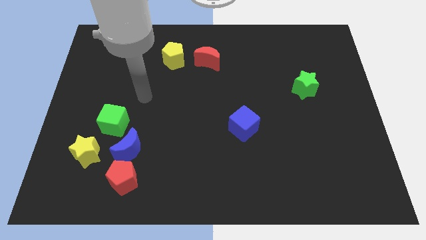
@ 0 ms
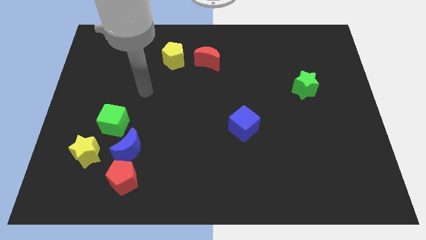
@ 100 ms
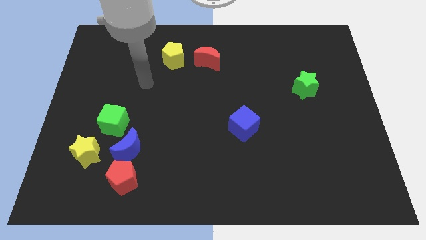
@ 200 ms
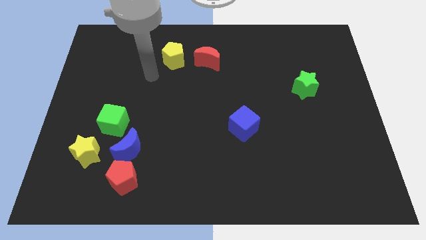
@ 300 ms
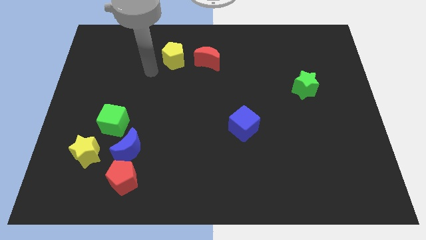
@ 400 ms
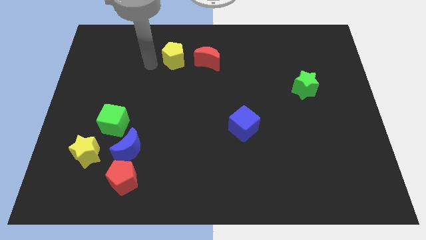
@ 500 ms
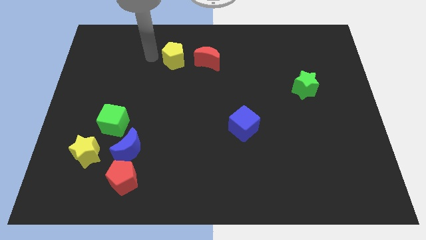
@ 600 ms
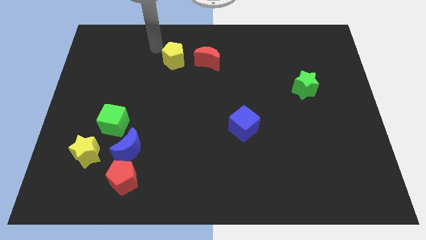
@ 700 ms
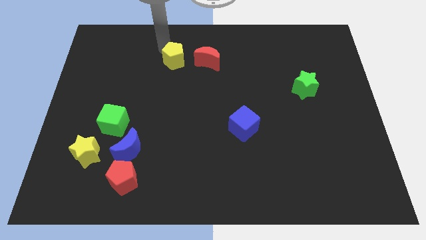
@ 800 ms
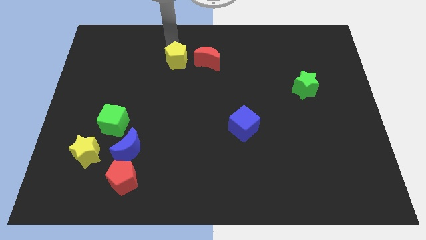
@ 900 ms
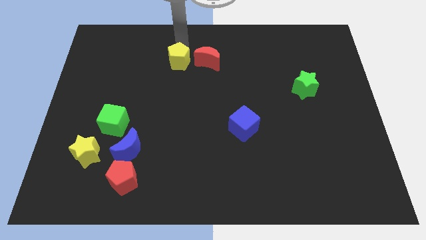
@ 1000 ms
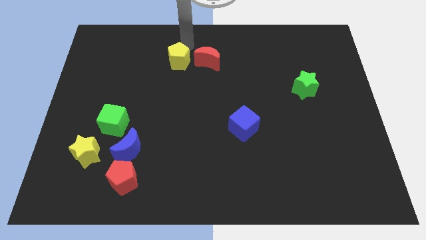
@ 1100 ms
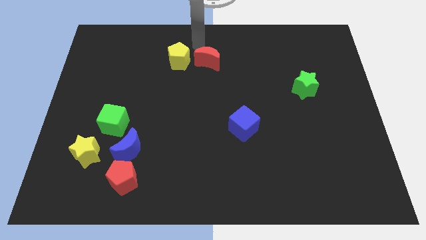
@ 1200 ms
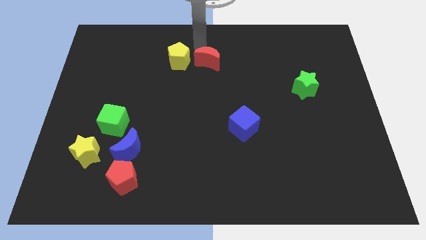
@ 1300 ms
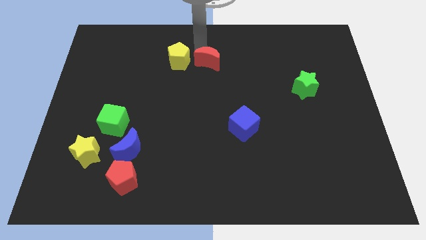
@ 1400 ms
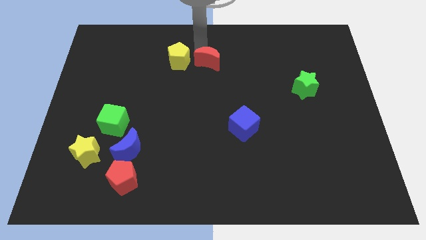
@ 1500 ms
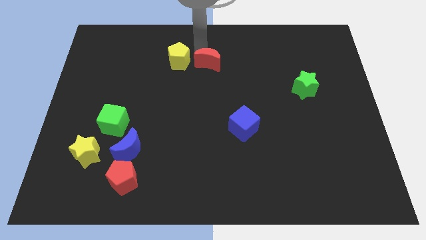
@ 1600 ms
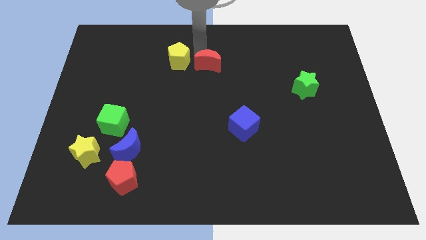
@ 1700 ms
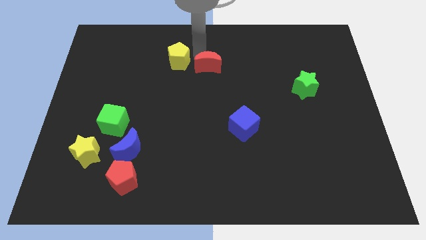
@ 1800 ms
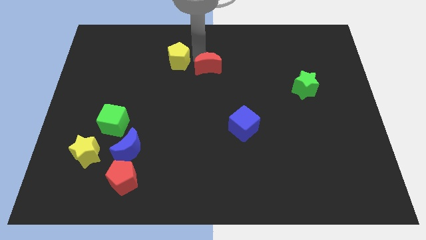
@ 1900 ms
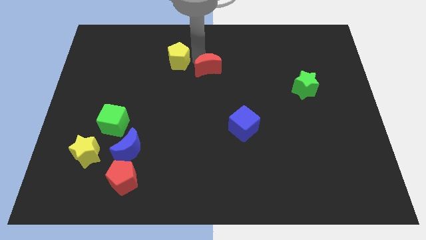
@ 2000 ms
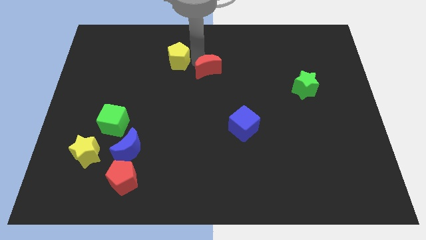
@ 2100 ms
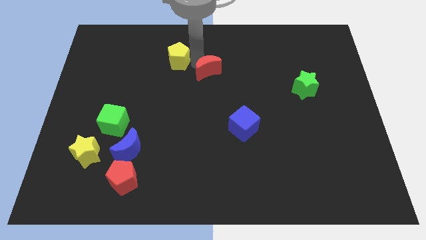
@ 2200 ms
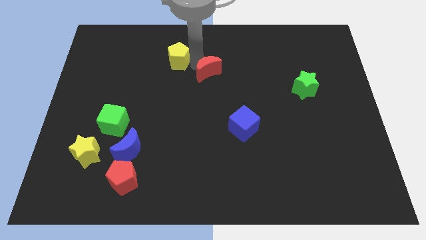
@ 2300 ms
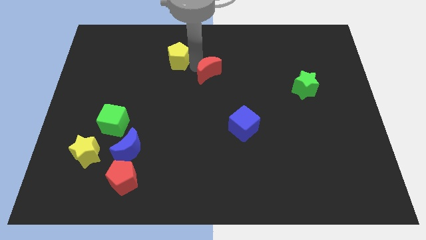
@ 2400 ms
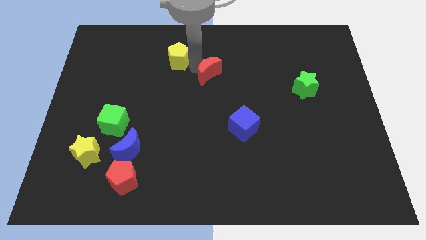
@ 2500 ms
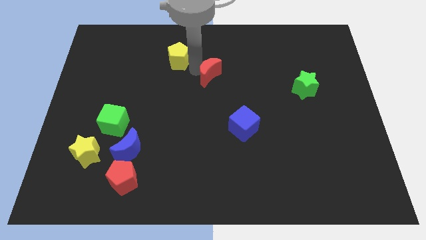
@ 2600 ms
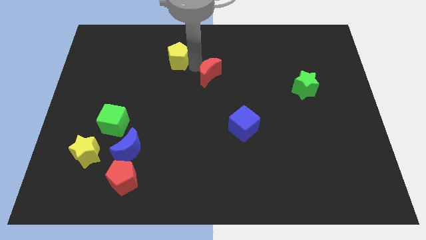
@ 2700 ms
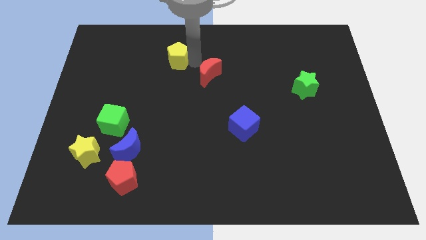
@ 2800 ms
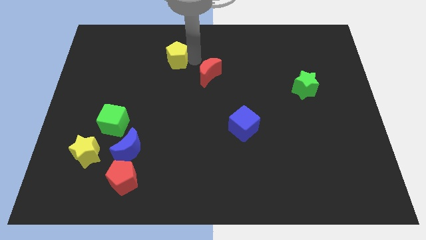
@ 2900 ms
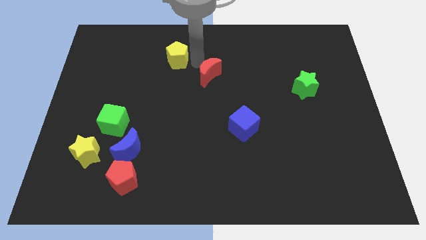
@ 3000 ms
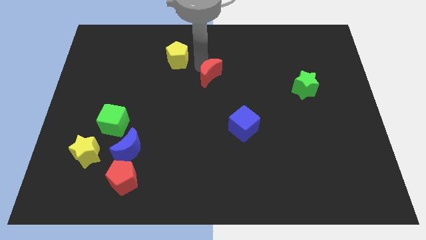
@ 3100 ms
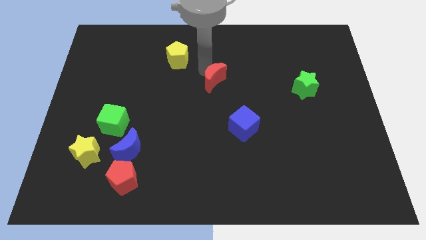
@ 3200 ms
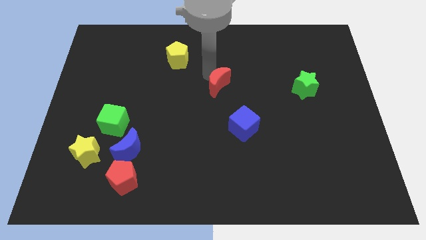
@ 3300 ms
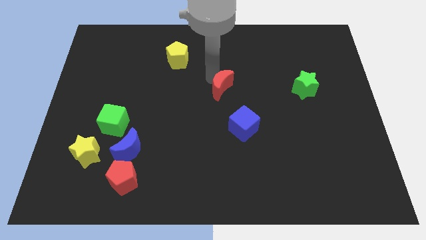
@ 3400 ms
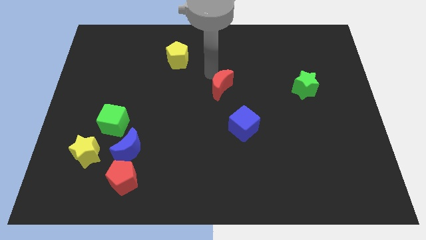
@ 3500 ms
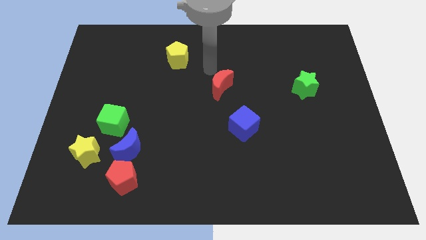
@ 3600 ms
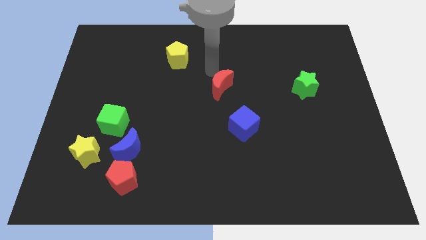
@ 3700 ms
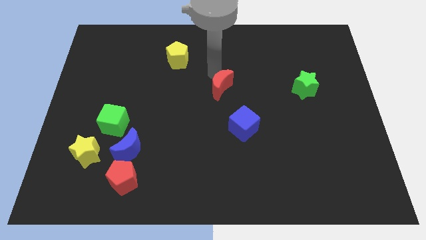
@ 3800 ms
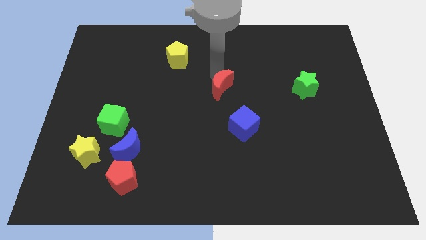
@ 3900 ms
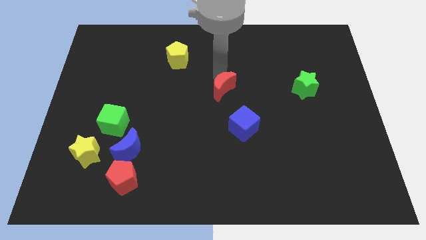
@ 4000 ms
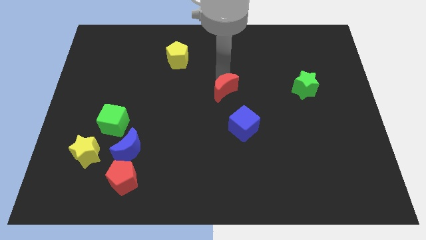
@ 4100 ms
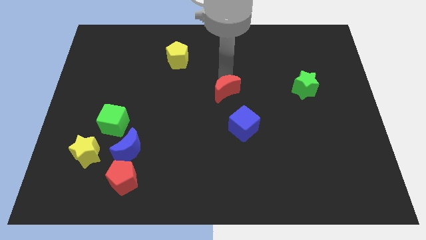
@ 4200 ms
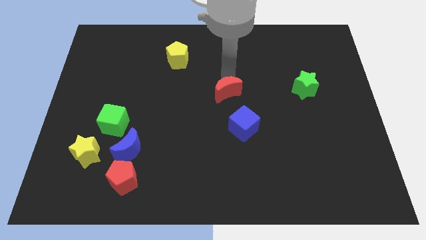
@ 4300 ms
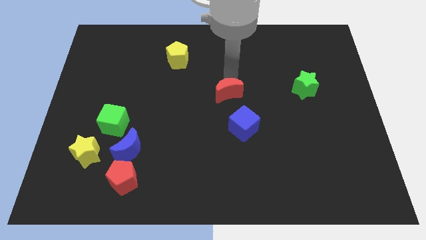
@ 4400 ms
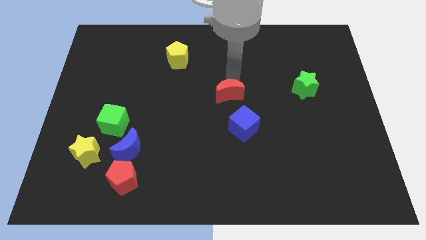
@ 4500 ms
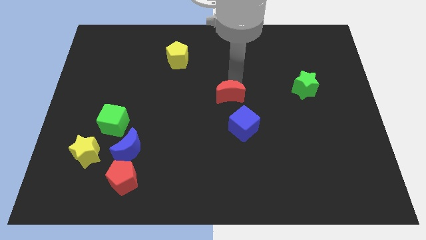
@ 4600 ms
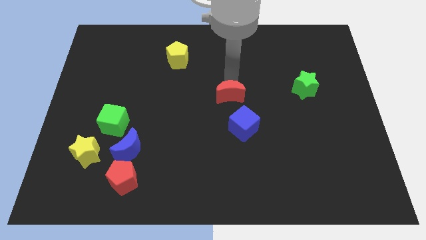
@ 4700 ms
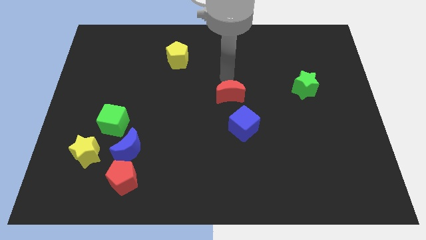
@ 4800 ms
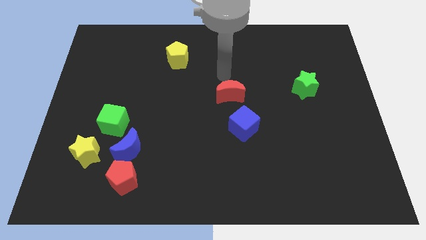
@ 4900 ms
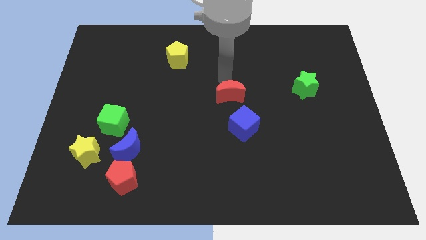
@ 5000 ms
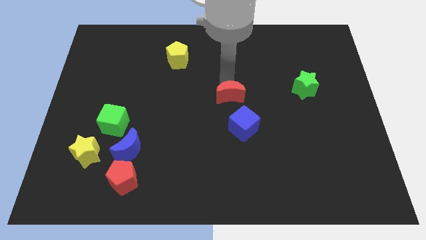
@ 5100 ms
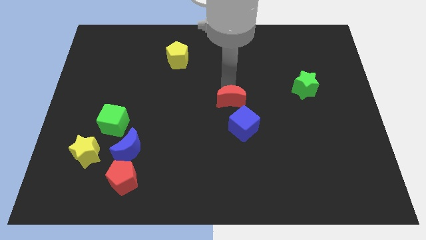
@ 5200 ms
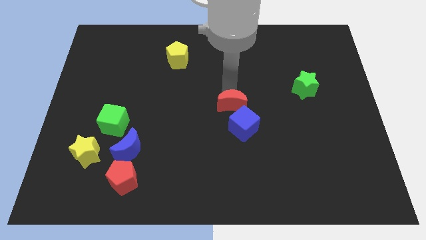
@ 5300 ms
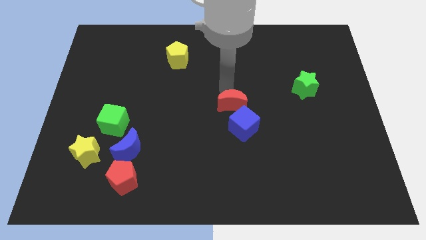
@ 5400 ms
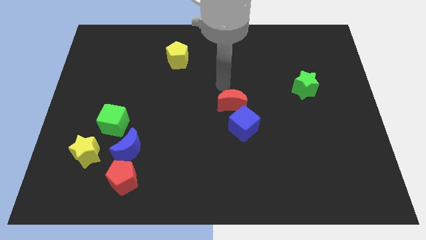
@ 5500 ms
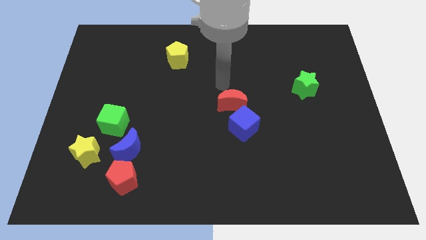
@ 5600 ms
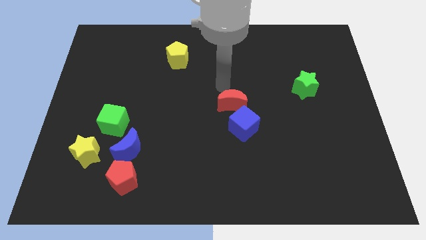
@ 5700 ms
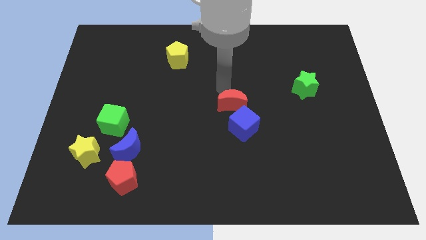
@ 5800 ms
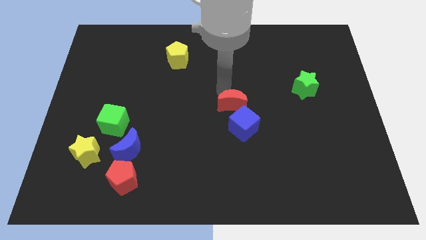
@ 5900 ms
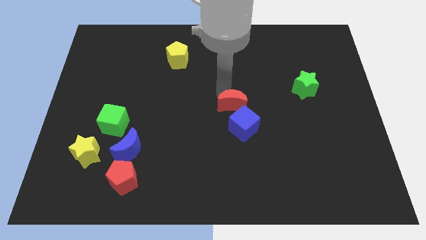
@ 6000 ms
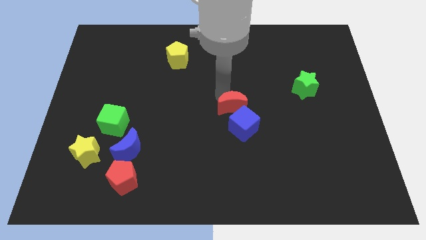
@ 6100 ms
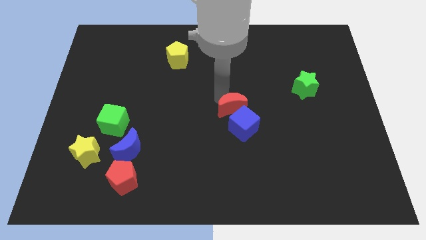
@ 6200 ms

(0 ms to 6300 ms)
put the red moon close to the blue cube
